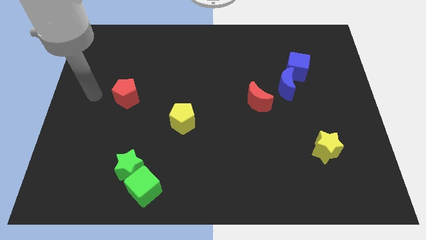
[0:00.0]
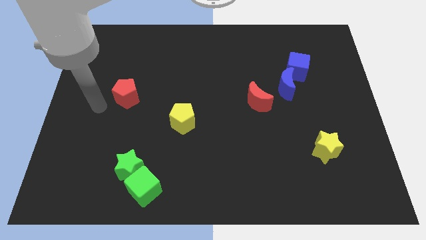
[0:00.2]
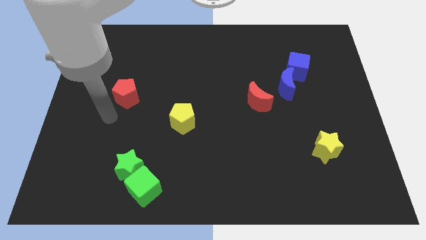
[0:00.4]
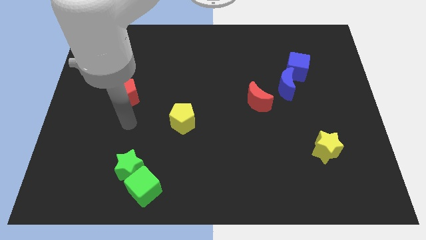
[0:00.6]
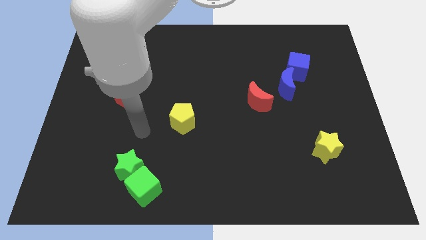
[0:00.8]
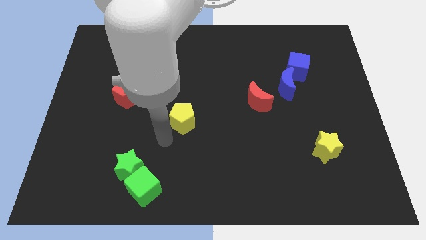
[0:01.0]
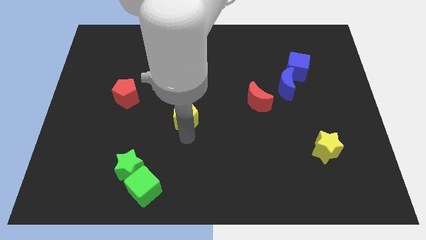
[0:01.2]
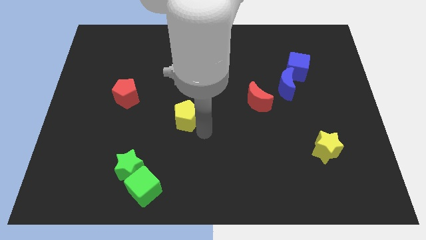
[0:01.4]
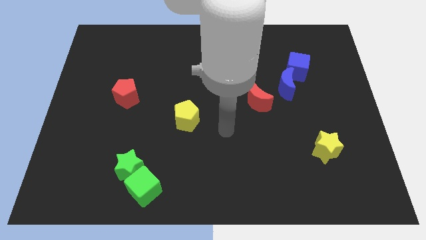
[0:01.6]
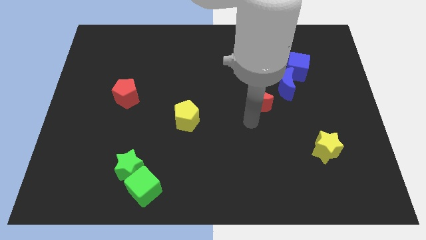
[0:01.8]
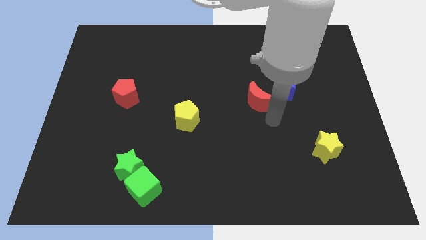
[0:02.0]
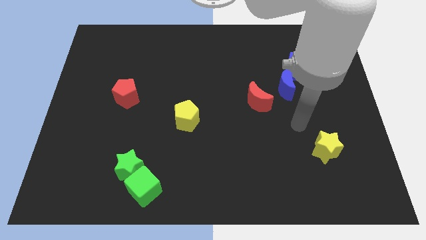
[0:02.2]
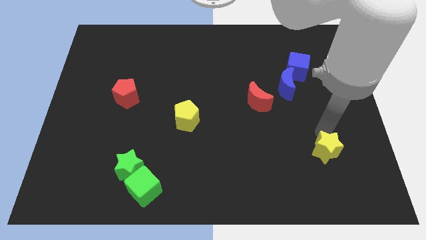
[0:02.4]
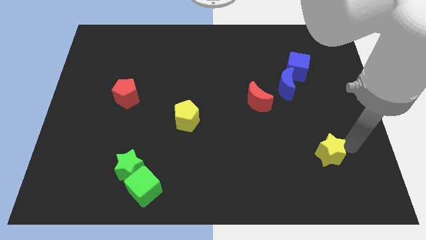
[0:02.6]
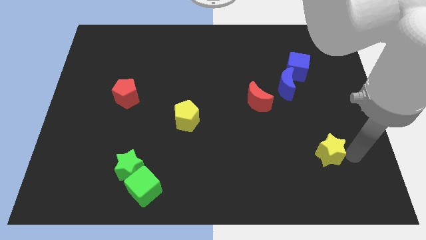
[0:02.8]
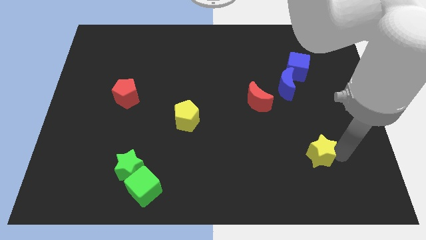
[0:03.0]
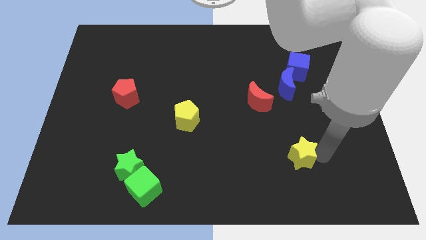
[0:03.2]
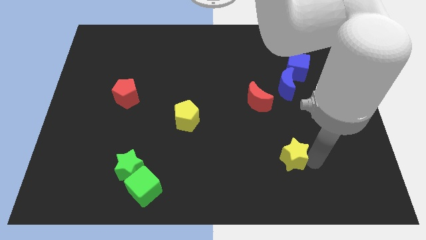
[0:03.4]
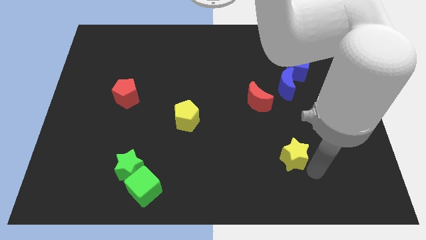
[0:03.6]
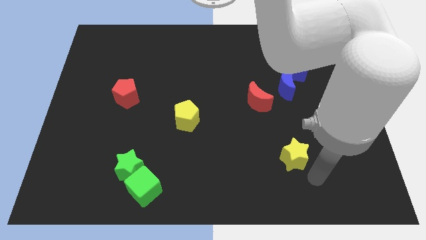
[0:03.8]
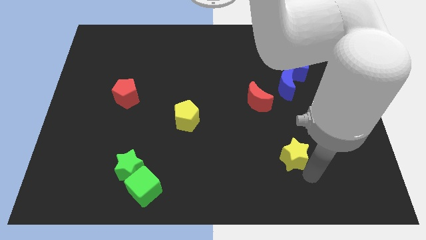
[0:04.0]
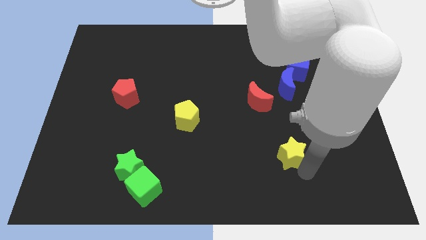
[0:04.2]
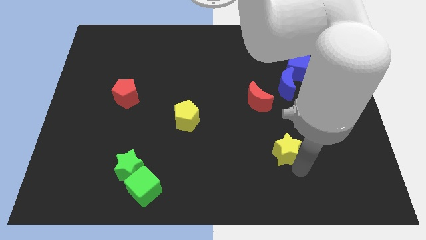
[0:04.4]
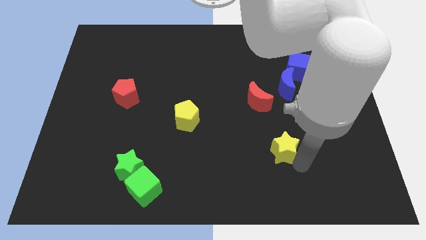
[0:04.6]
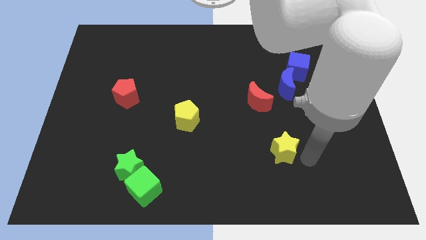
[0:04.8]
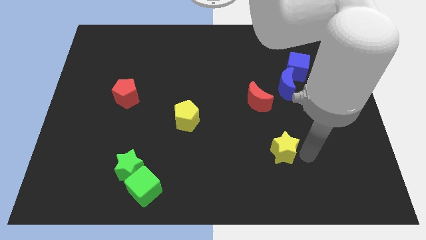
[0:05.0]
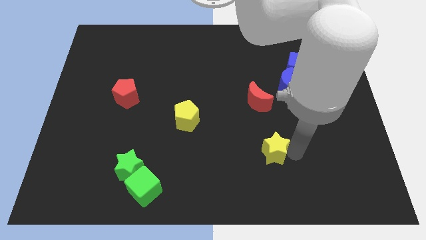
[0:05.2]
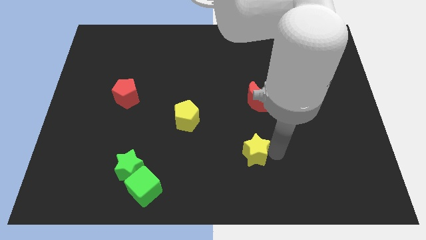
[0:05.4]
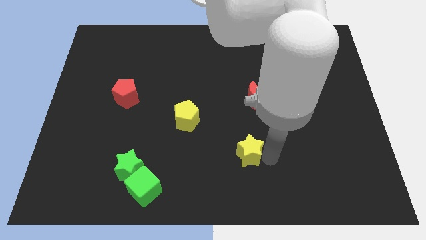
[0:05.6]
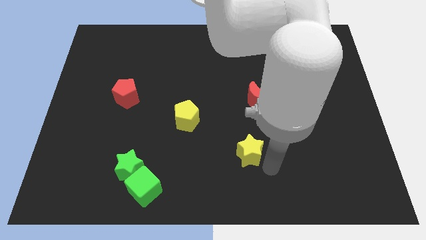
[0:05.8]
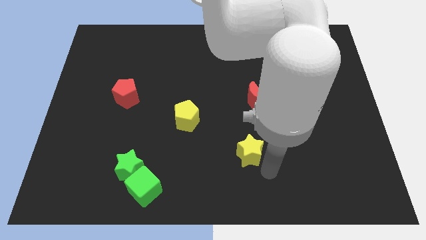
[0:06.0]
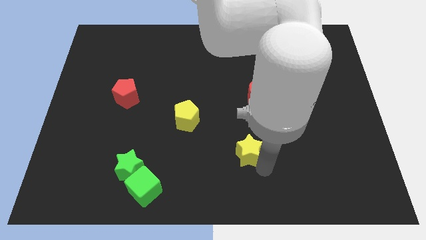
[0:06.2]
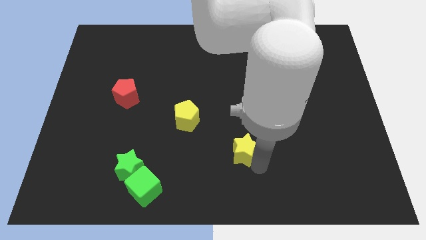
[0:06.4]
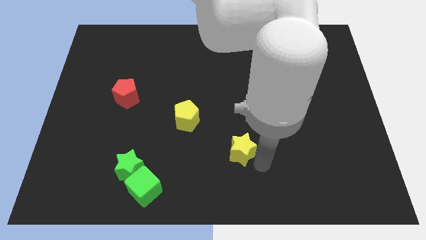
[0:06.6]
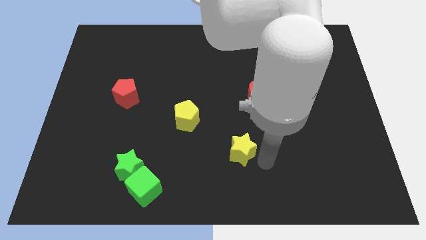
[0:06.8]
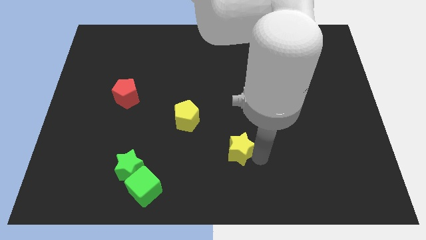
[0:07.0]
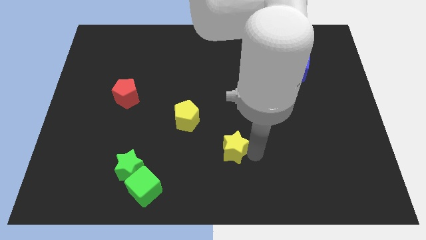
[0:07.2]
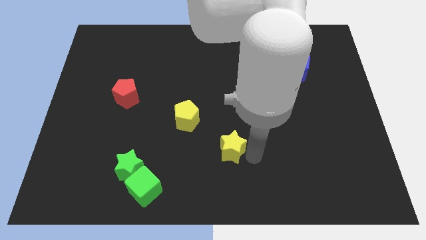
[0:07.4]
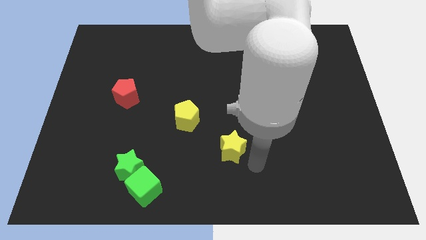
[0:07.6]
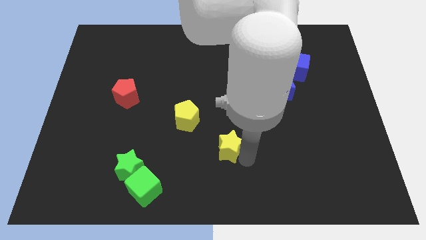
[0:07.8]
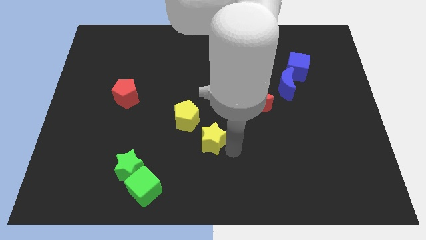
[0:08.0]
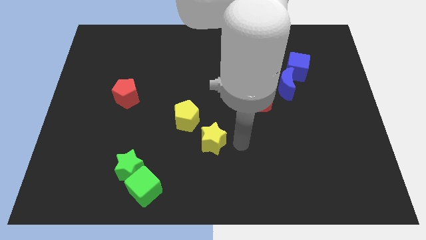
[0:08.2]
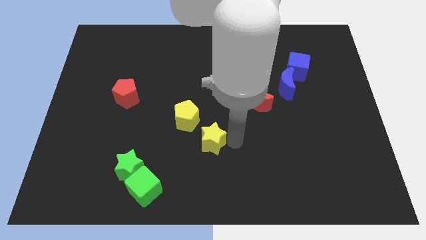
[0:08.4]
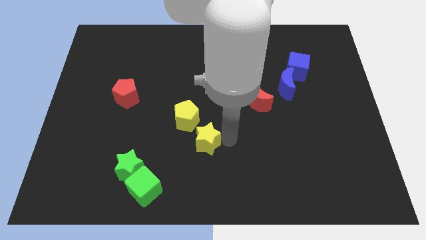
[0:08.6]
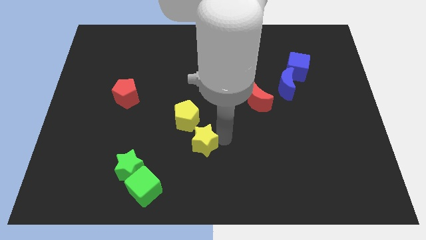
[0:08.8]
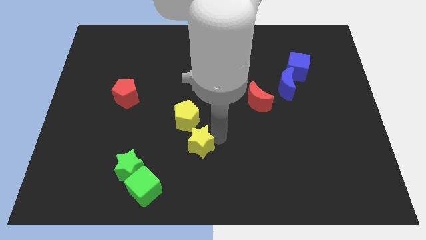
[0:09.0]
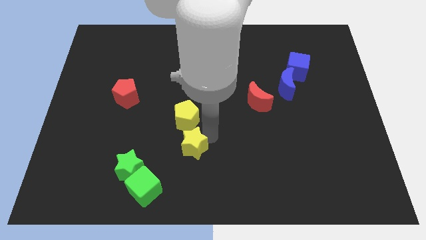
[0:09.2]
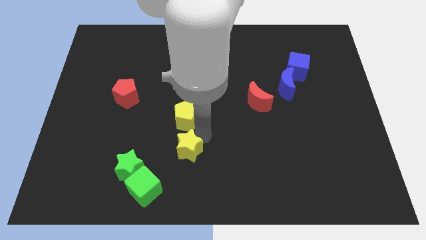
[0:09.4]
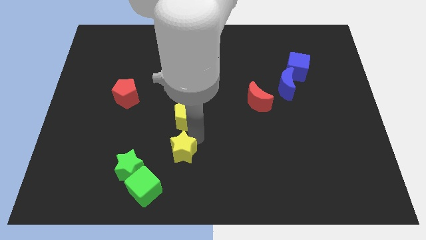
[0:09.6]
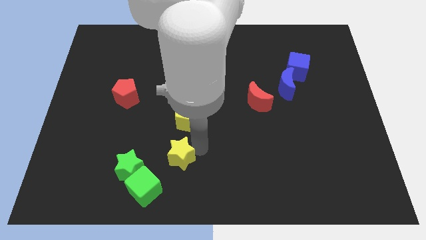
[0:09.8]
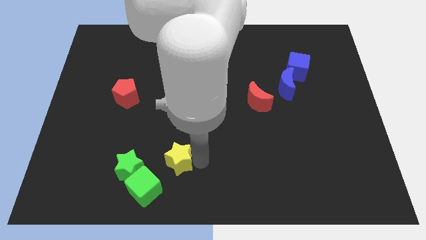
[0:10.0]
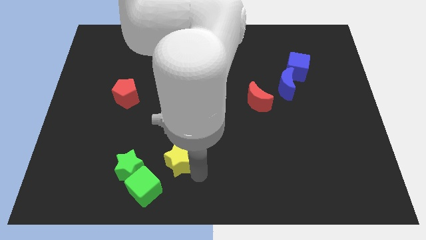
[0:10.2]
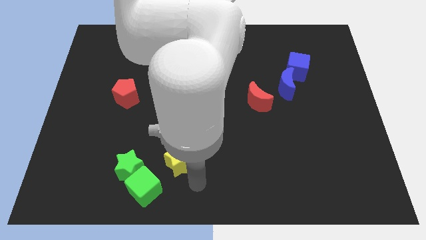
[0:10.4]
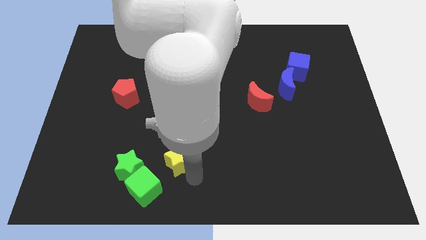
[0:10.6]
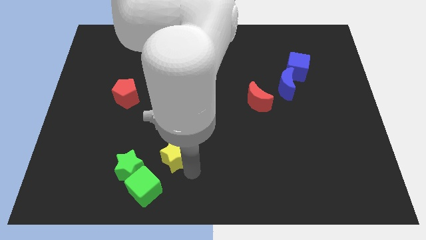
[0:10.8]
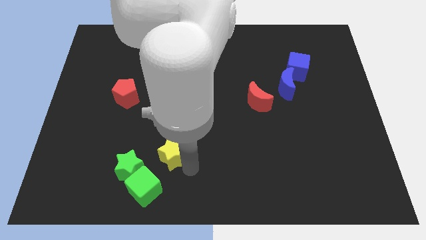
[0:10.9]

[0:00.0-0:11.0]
slide the yellow star diagonally down and to the left of the yellow pentagon

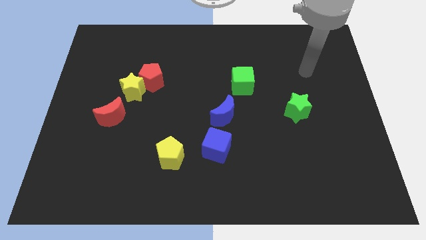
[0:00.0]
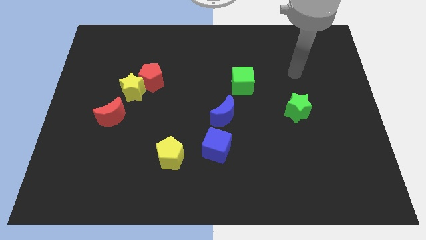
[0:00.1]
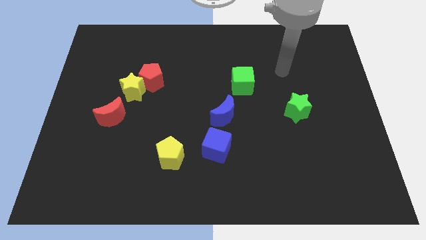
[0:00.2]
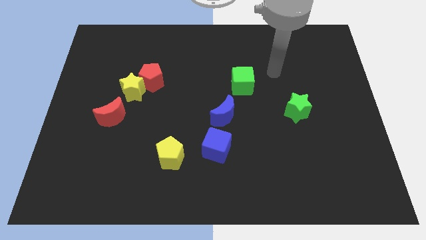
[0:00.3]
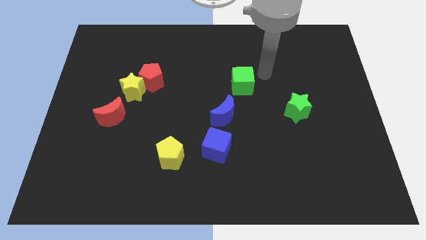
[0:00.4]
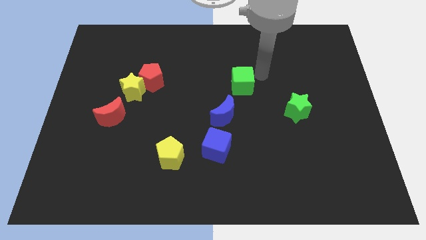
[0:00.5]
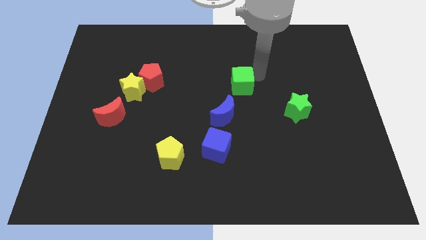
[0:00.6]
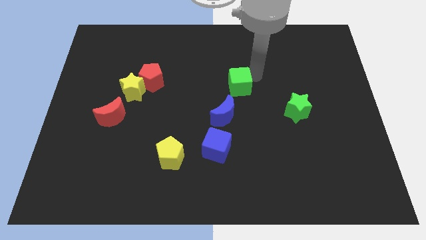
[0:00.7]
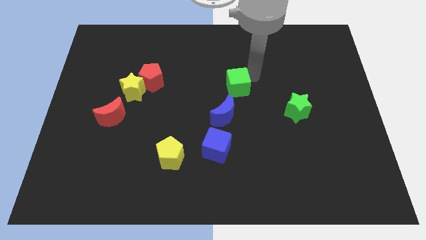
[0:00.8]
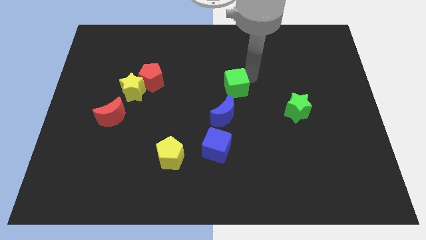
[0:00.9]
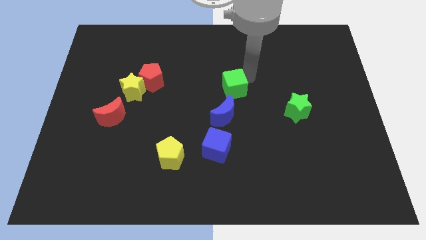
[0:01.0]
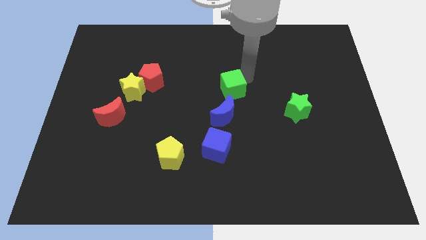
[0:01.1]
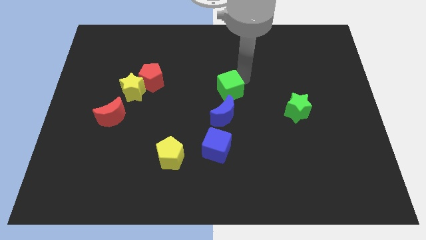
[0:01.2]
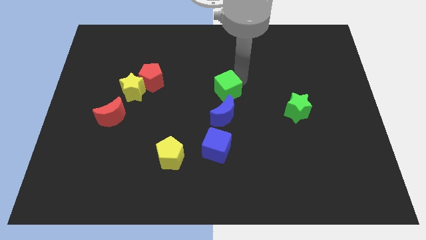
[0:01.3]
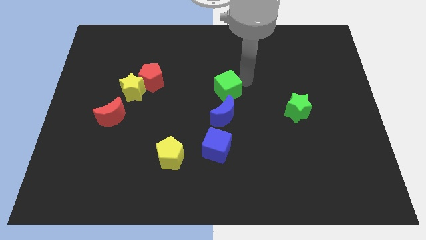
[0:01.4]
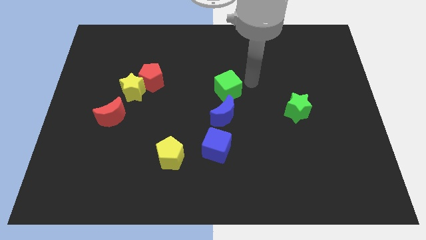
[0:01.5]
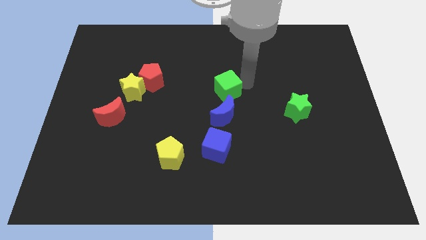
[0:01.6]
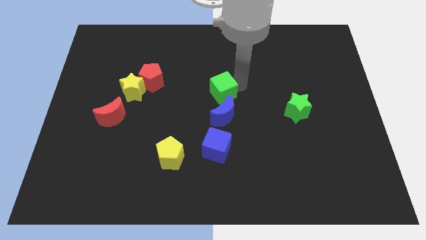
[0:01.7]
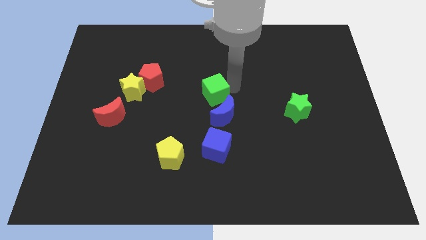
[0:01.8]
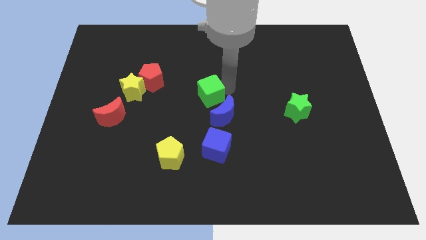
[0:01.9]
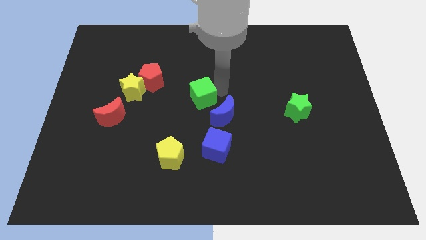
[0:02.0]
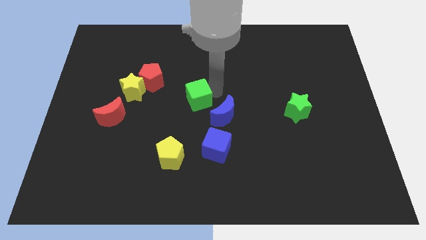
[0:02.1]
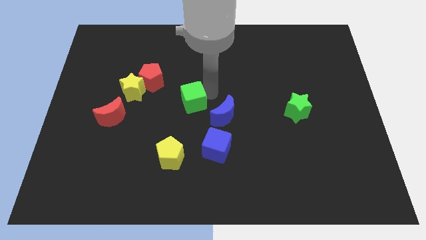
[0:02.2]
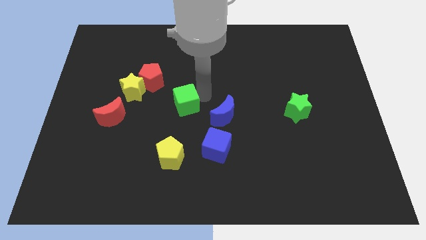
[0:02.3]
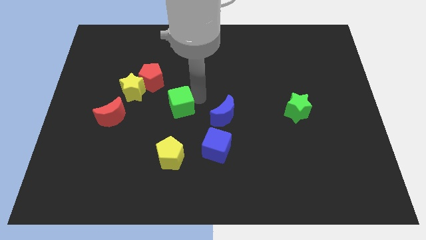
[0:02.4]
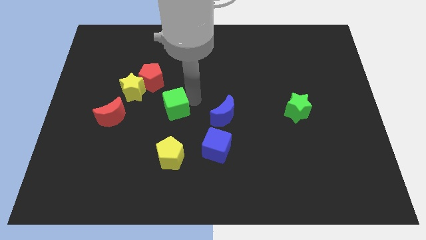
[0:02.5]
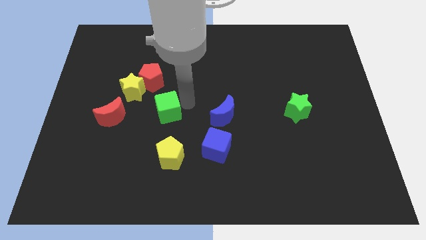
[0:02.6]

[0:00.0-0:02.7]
slide the green cube to the bottom right of the yellow star
